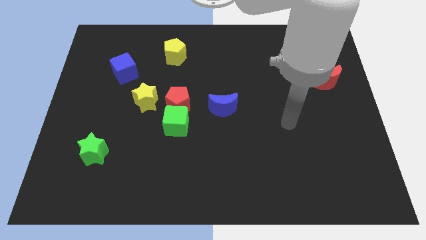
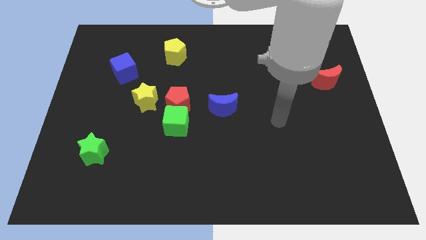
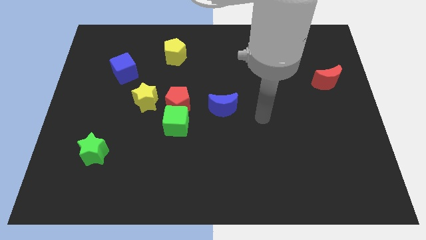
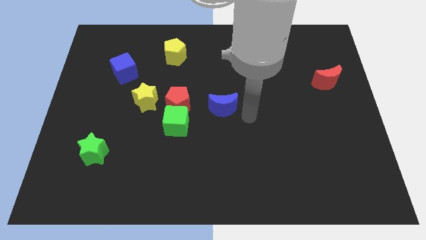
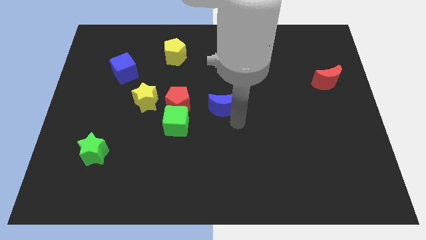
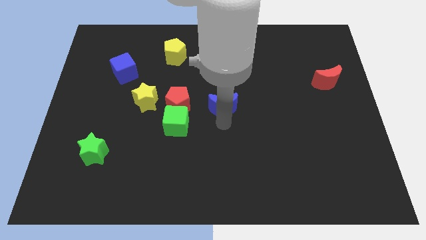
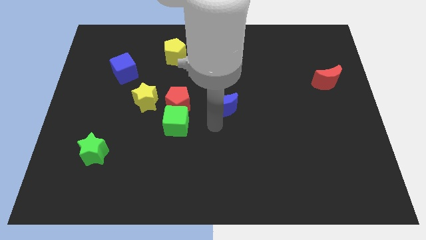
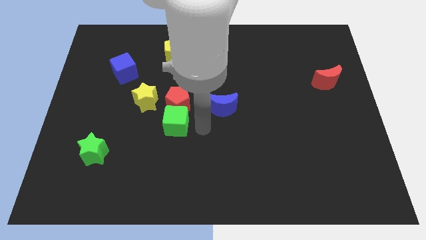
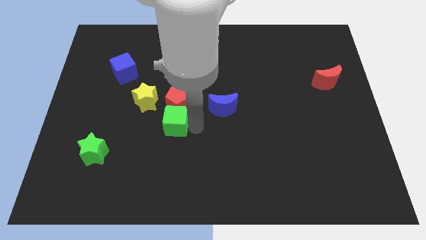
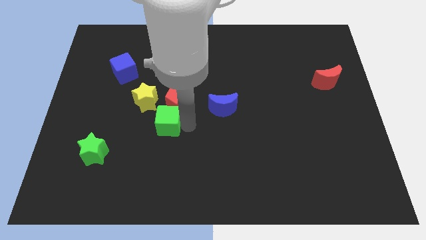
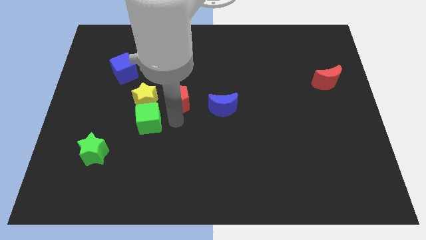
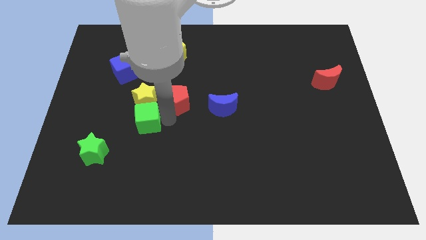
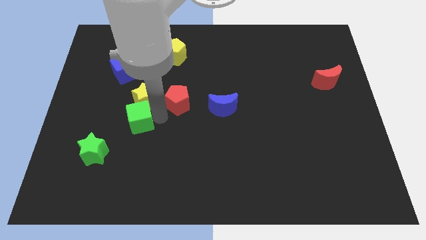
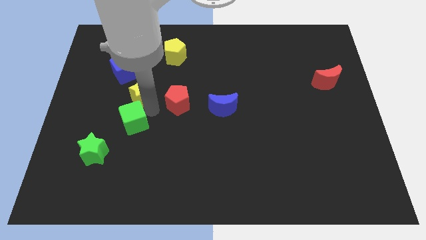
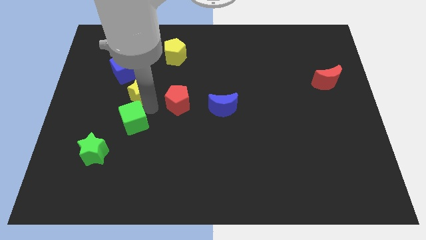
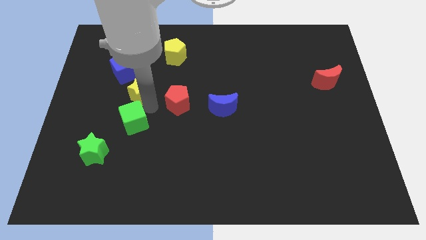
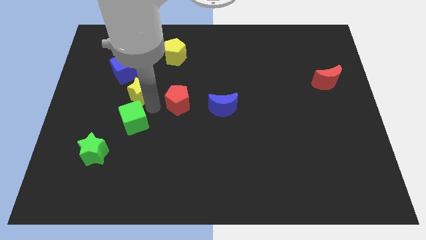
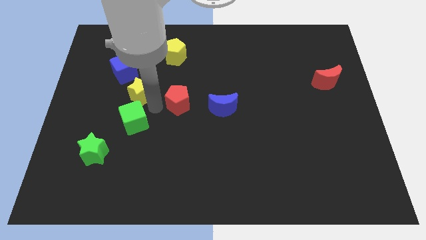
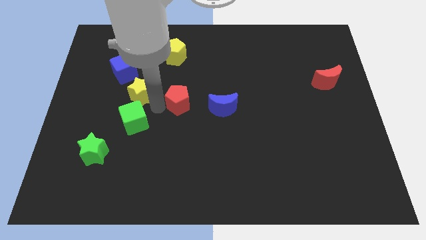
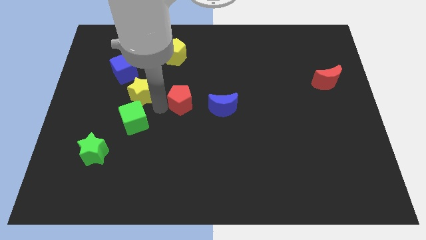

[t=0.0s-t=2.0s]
separate the red pentagon from the green cube and yellow star

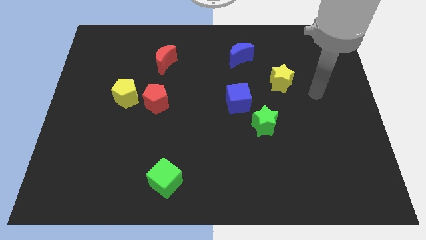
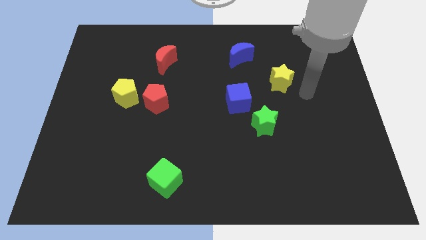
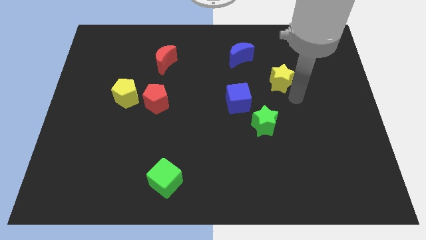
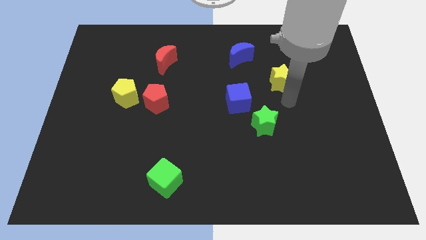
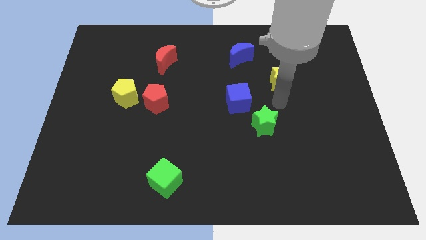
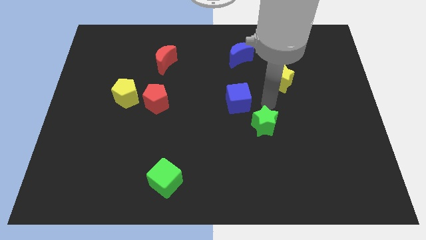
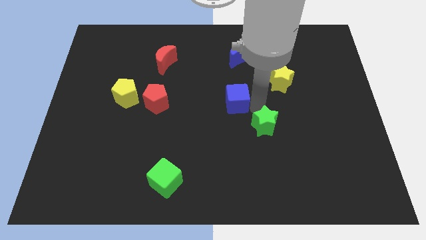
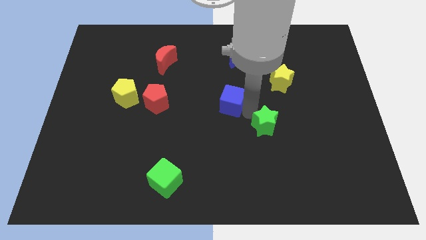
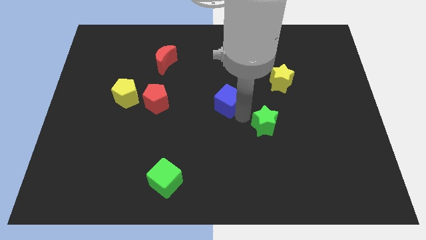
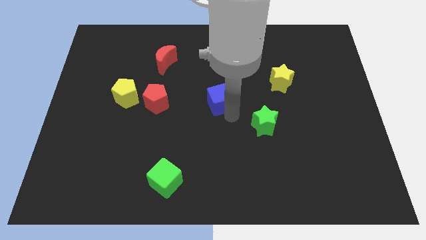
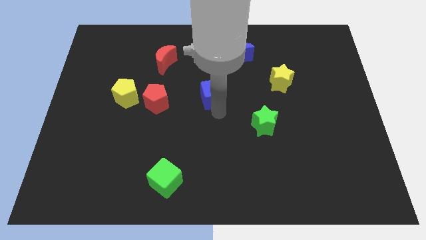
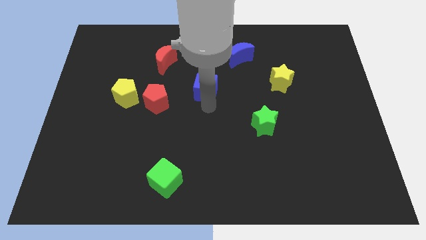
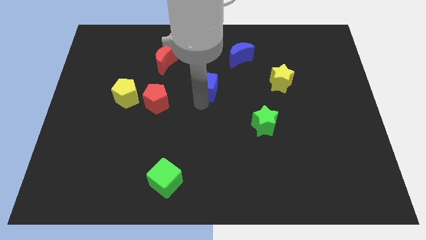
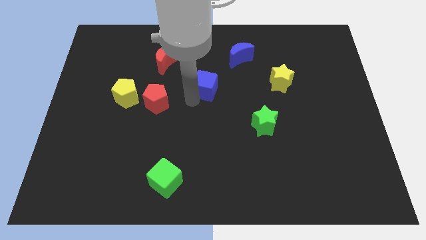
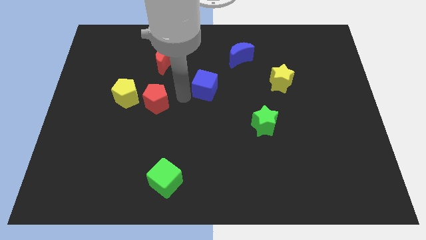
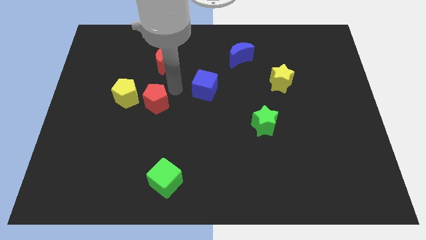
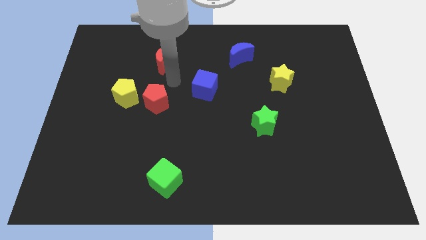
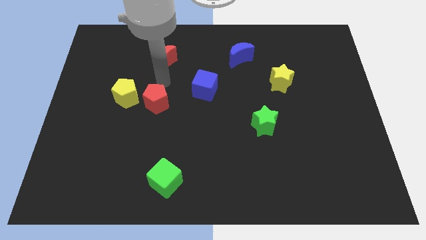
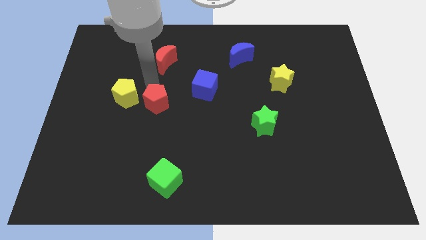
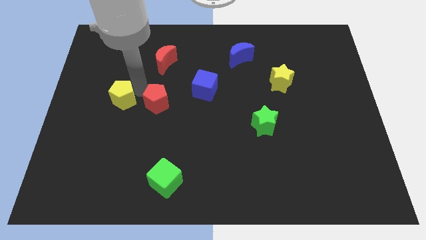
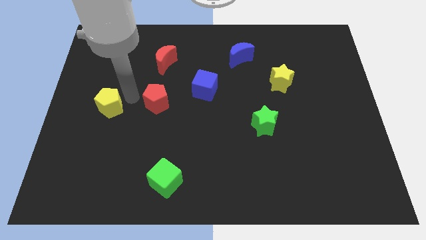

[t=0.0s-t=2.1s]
separate the red pentagon from the yellow pentagon

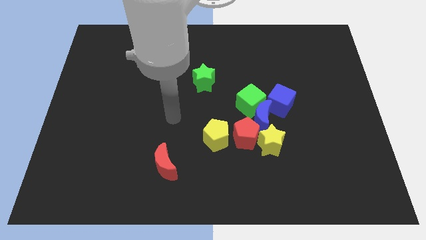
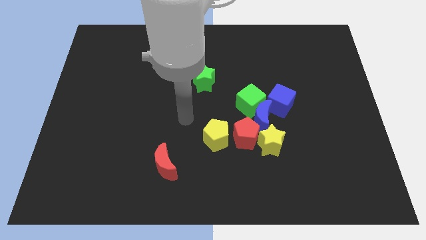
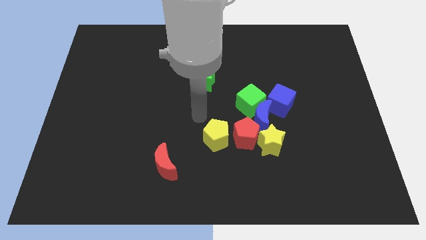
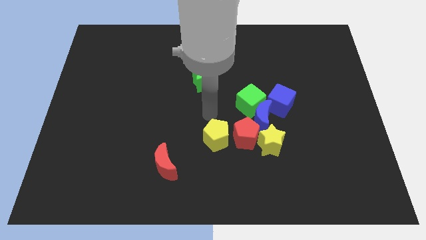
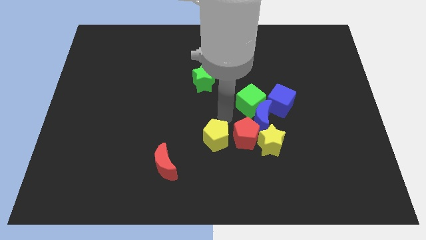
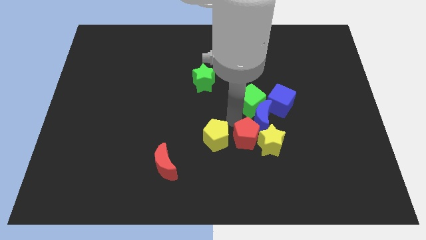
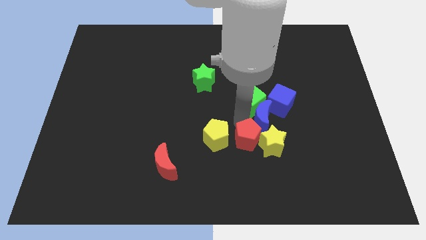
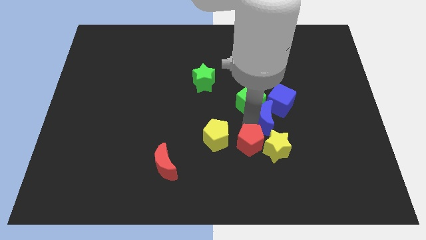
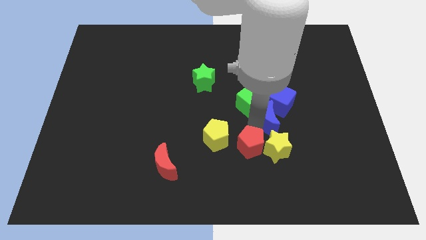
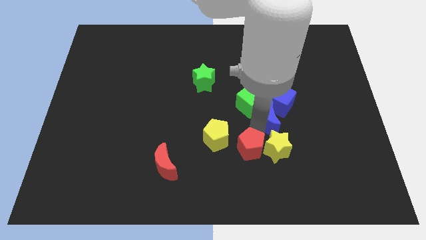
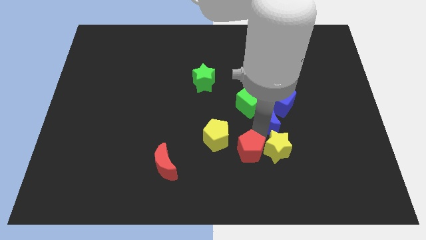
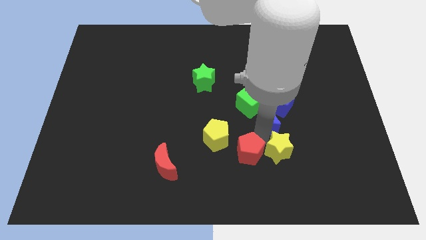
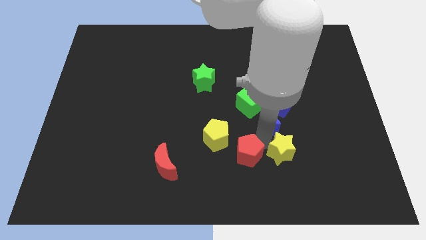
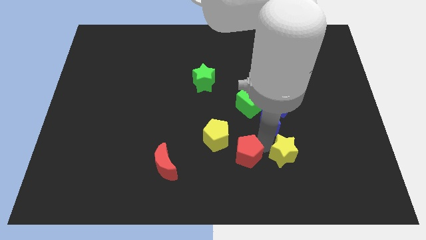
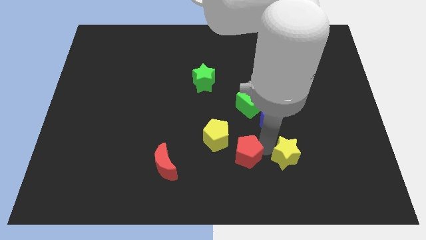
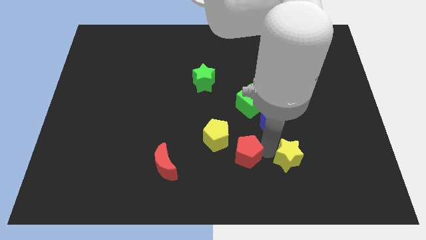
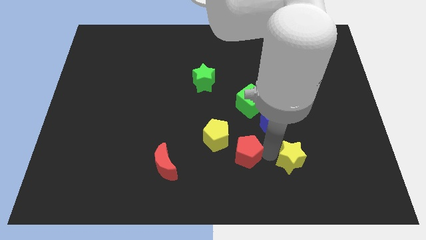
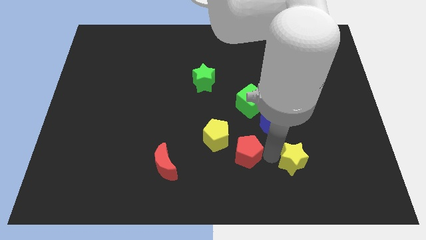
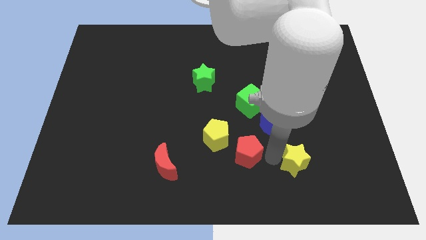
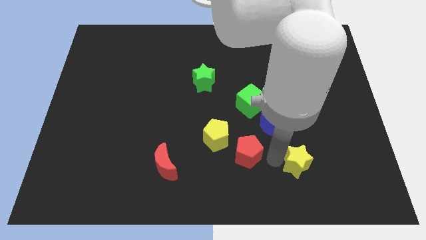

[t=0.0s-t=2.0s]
separate the yellow star from the red pentagon and blue moon

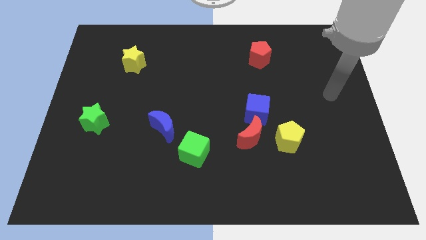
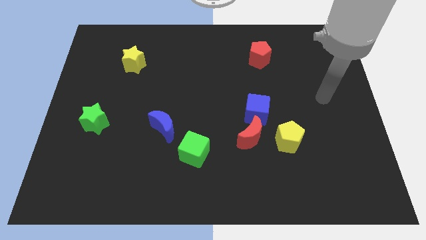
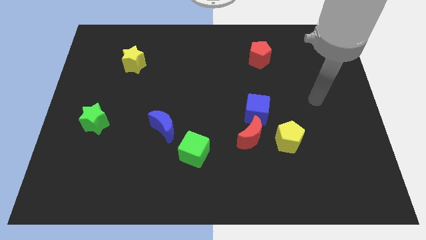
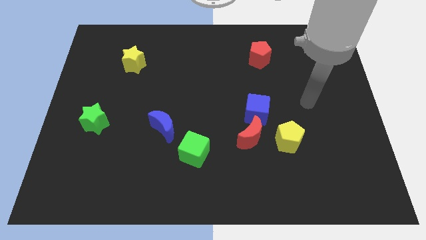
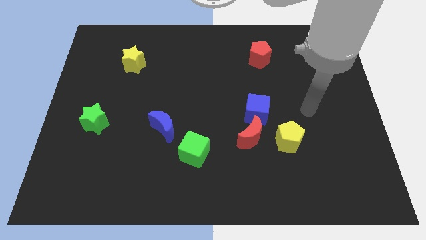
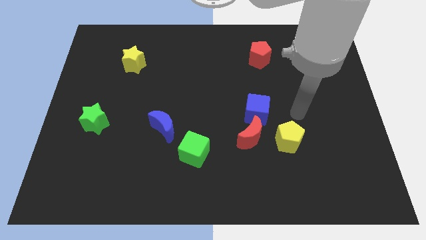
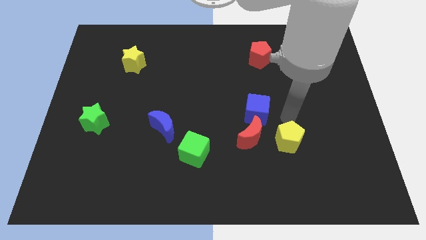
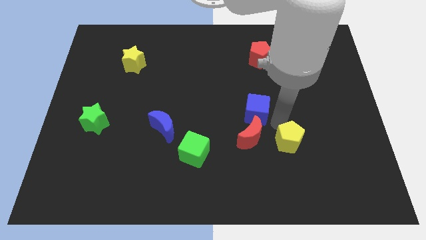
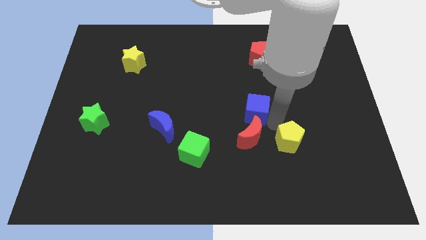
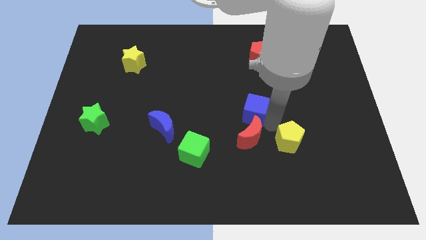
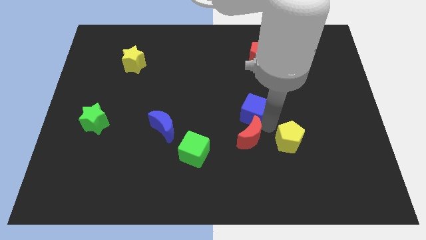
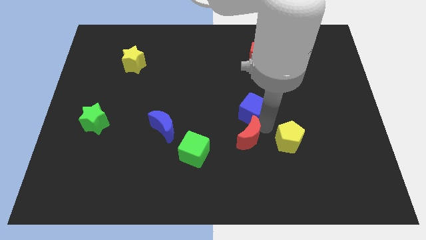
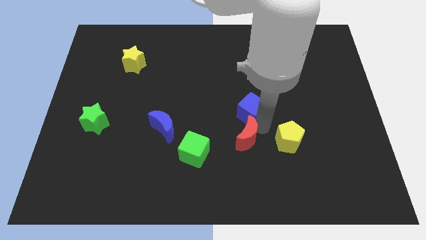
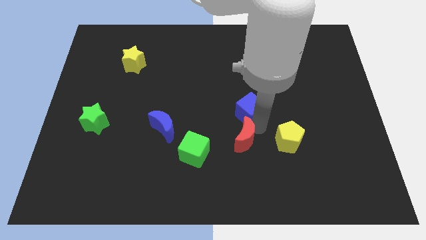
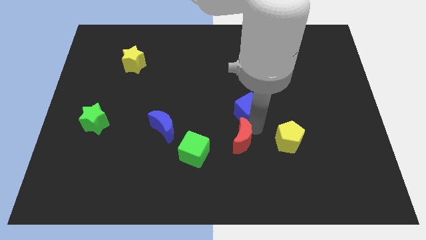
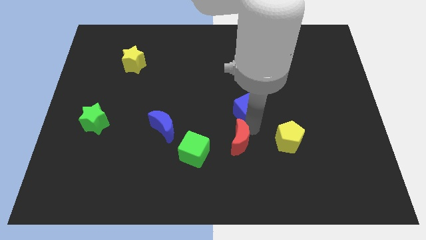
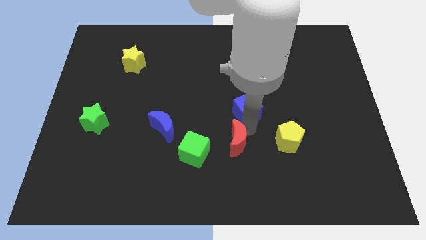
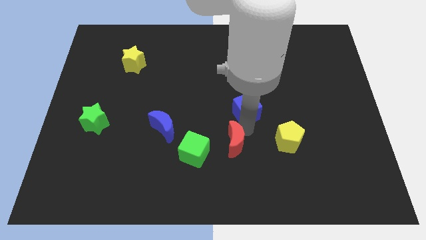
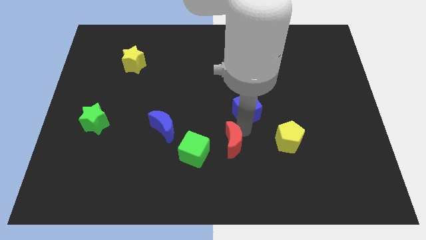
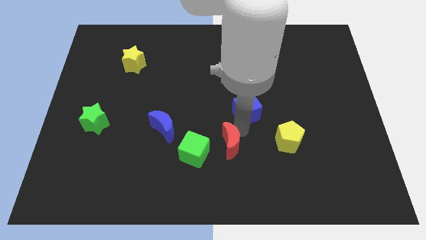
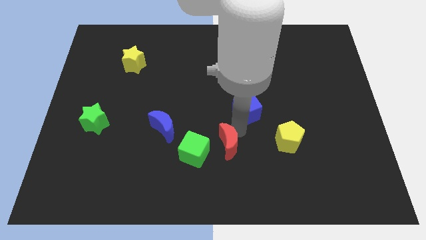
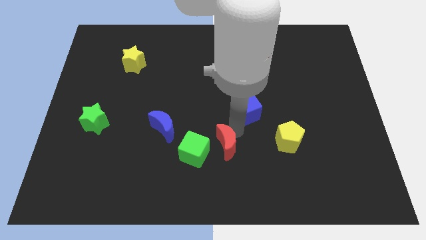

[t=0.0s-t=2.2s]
pull the red moon apart from the blue cube and yellow pentagon

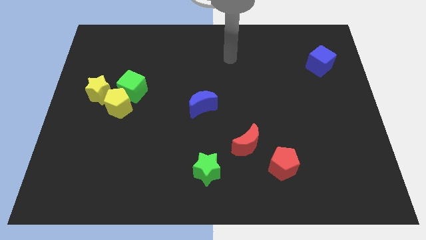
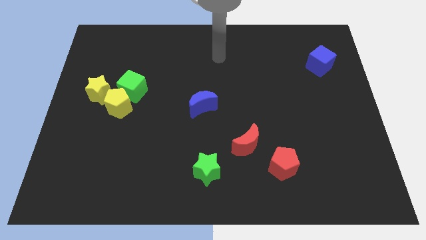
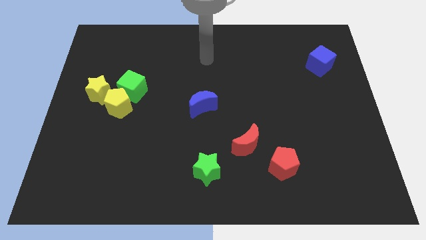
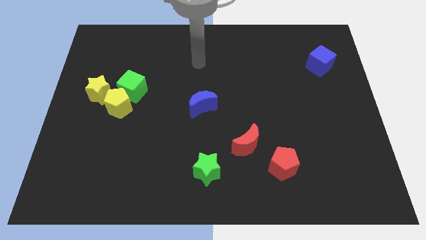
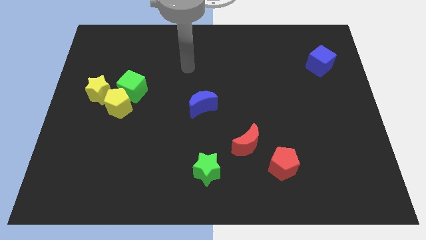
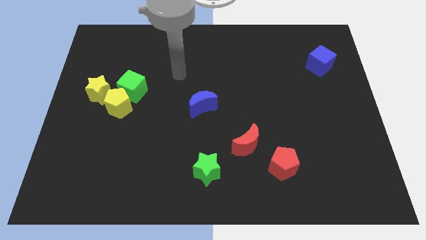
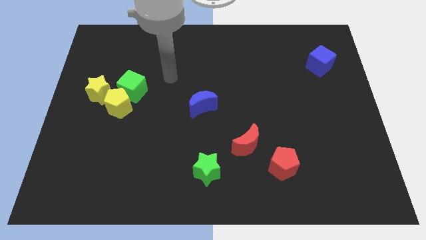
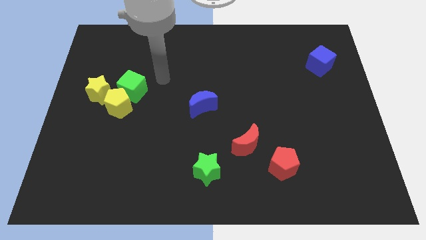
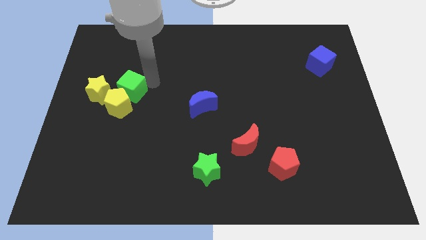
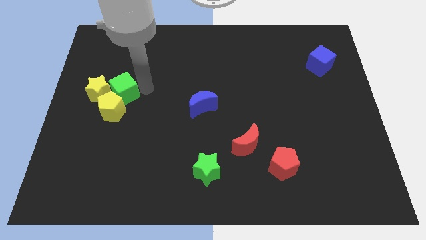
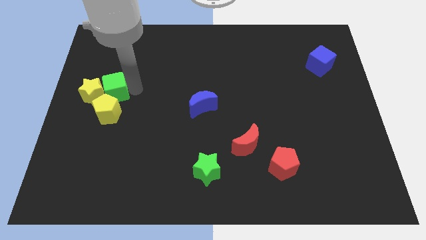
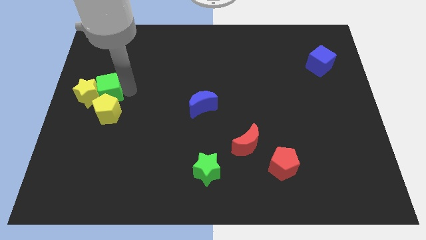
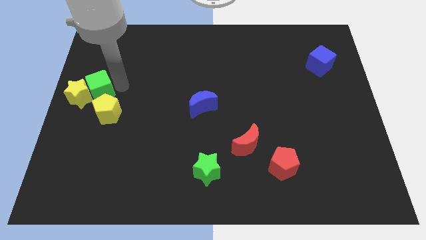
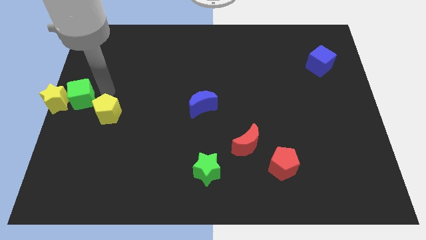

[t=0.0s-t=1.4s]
separate the yellow pentagon from the green cube and yellow star
